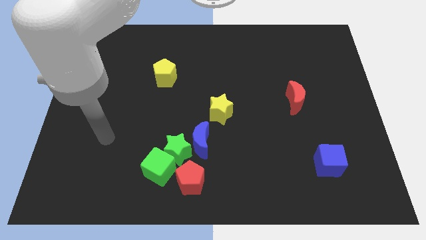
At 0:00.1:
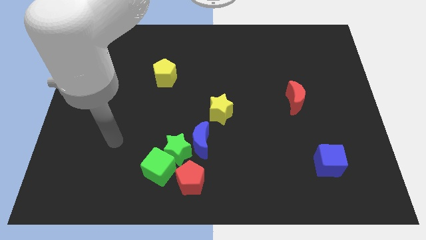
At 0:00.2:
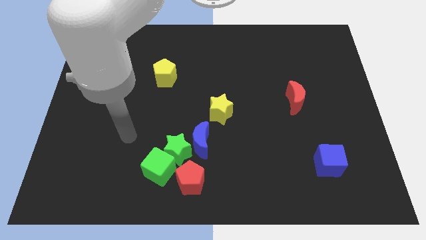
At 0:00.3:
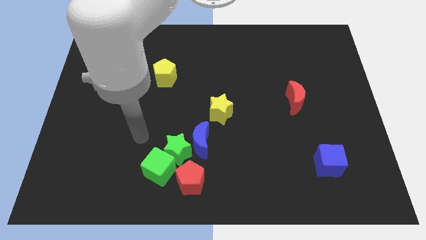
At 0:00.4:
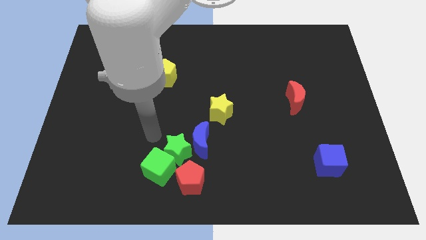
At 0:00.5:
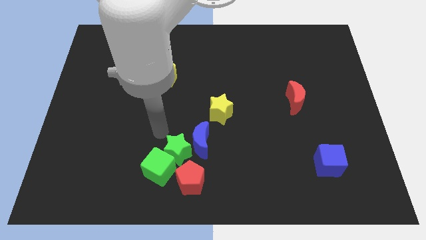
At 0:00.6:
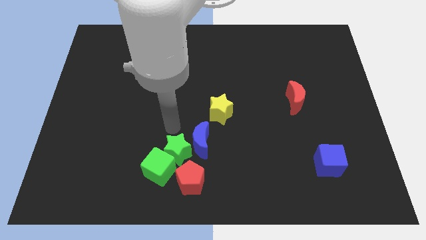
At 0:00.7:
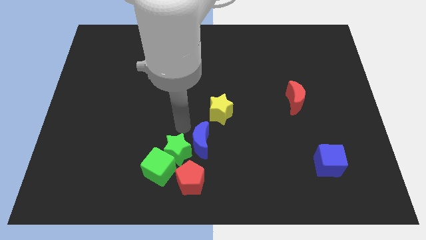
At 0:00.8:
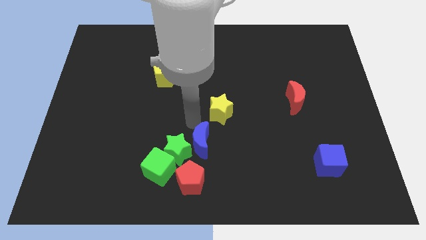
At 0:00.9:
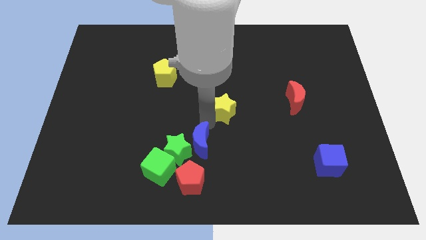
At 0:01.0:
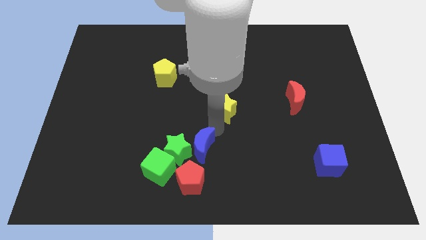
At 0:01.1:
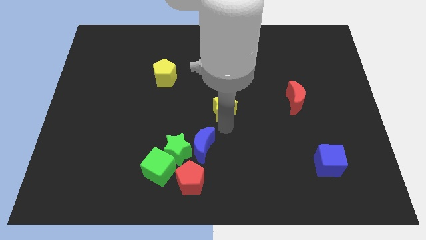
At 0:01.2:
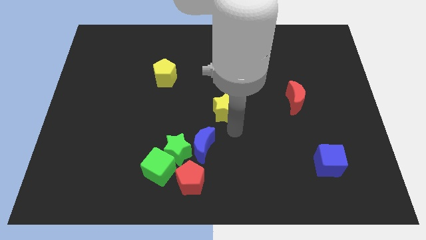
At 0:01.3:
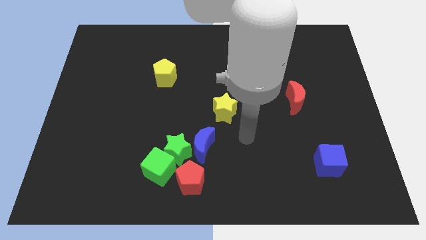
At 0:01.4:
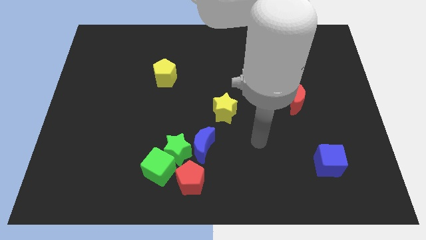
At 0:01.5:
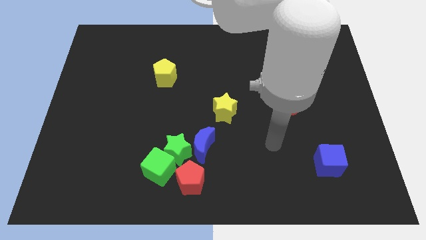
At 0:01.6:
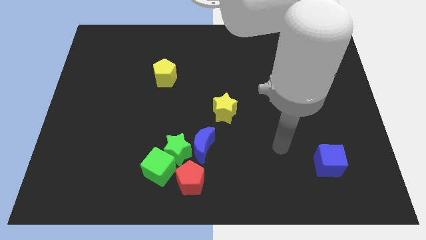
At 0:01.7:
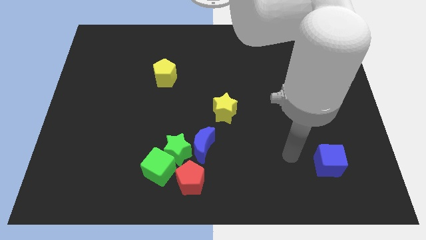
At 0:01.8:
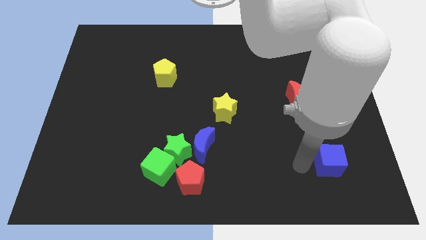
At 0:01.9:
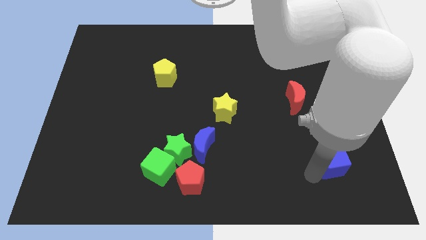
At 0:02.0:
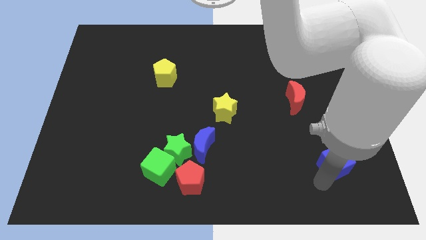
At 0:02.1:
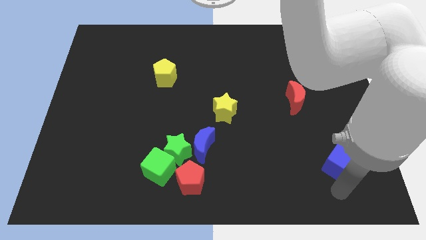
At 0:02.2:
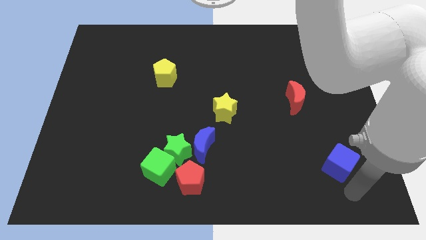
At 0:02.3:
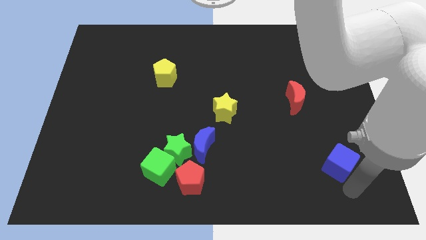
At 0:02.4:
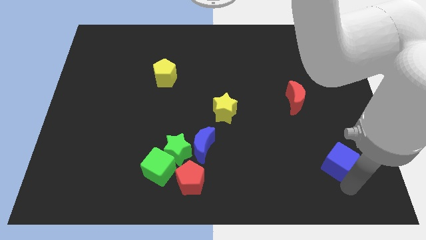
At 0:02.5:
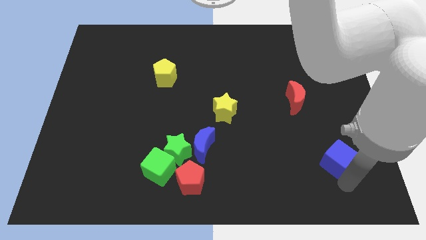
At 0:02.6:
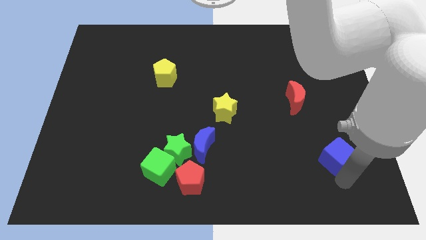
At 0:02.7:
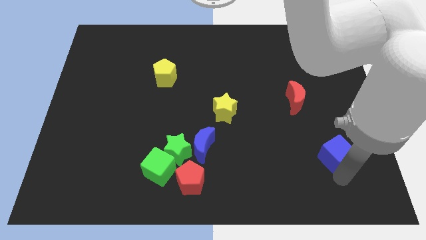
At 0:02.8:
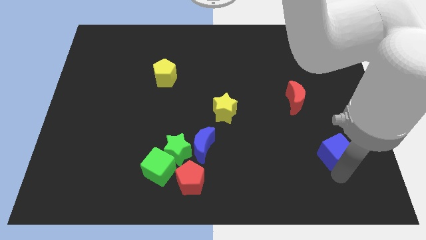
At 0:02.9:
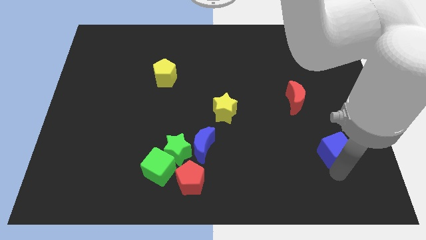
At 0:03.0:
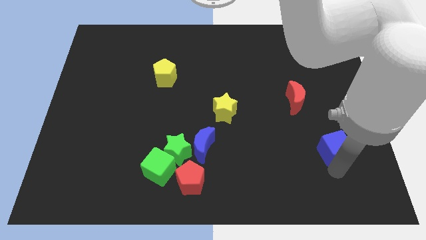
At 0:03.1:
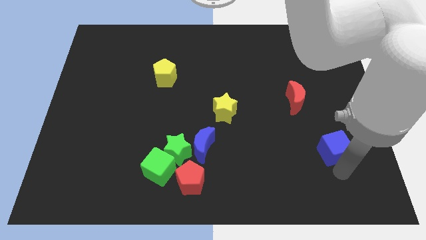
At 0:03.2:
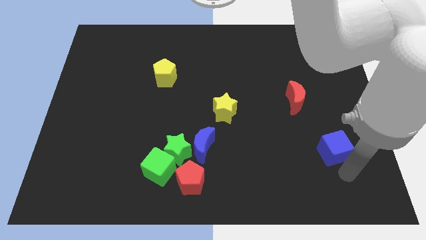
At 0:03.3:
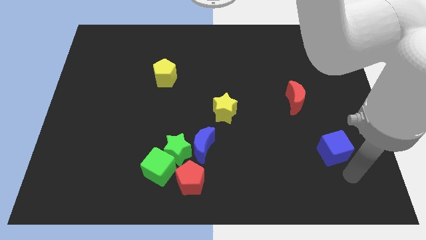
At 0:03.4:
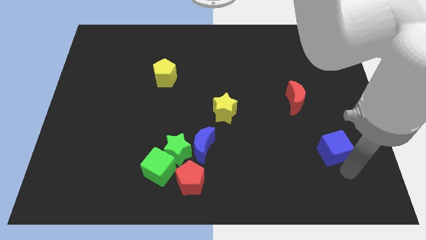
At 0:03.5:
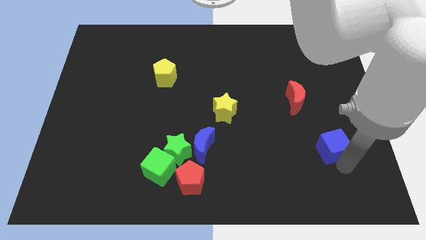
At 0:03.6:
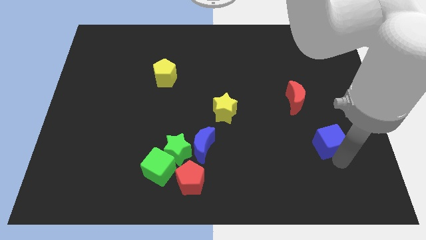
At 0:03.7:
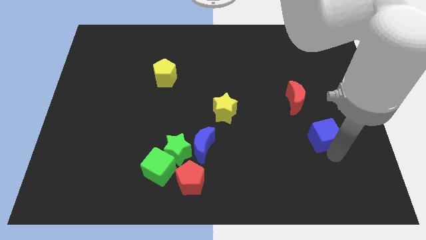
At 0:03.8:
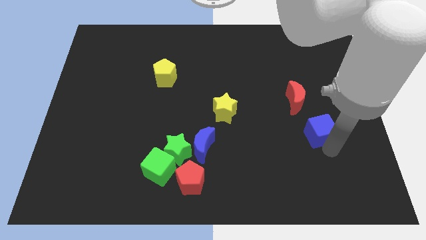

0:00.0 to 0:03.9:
push the blue cube up a little bit

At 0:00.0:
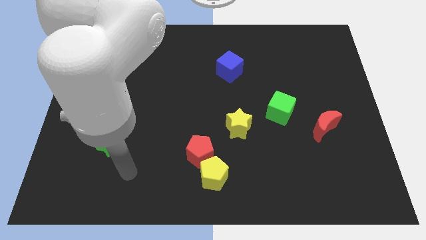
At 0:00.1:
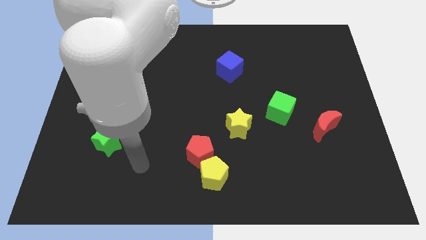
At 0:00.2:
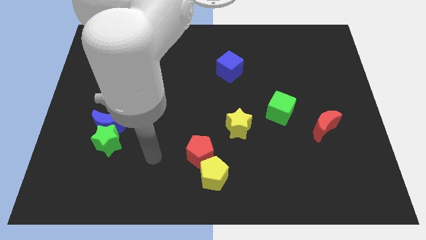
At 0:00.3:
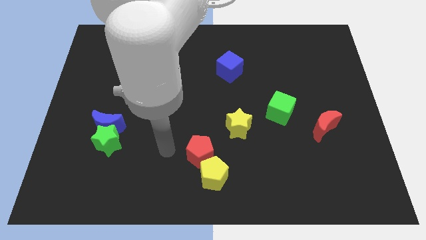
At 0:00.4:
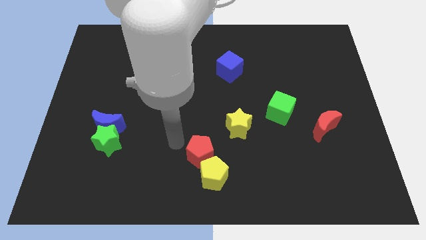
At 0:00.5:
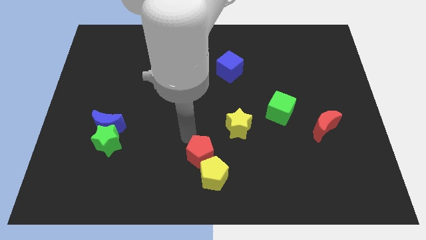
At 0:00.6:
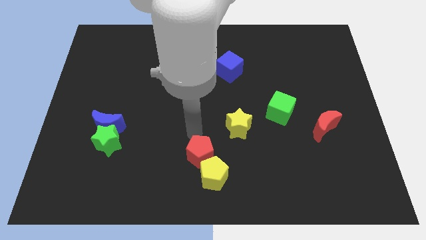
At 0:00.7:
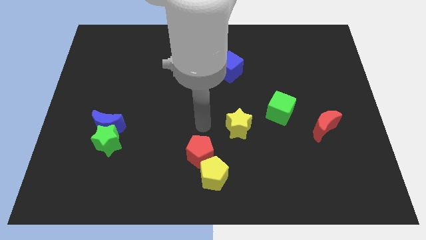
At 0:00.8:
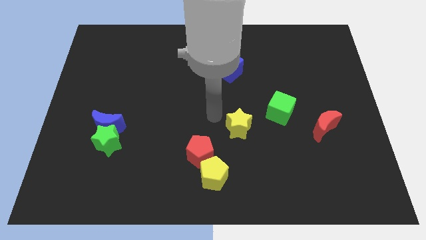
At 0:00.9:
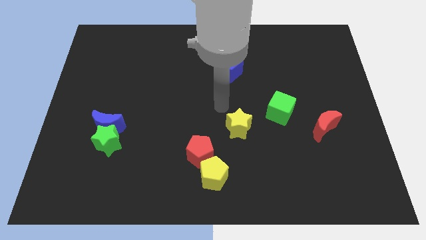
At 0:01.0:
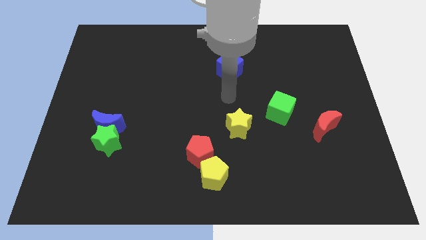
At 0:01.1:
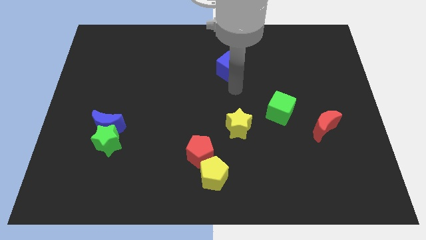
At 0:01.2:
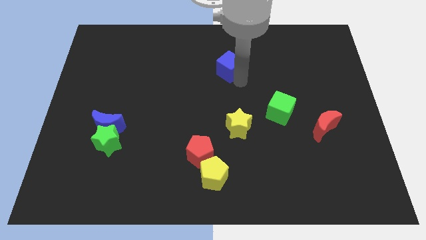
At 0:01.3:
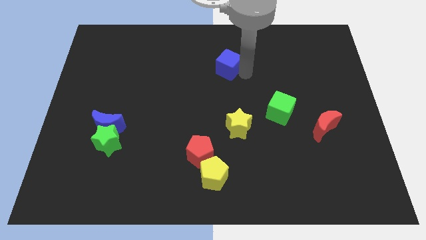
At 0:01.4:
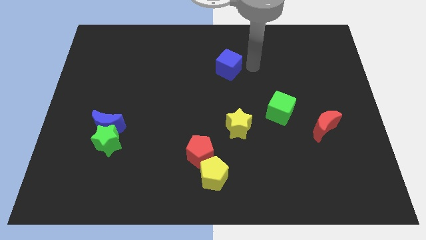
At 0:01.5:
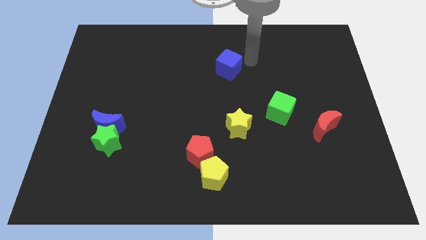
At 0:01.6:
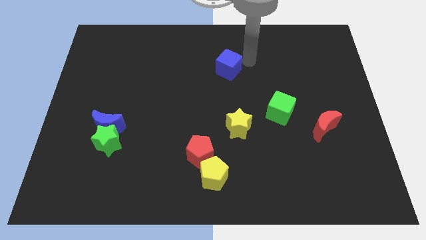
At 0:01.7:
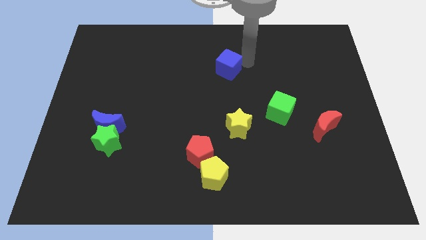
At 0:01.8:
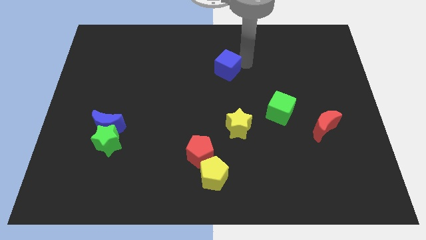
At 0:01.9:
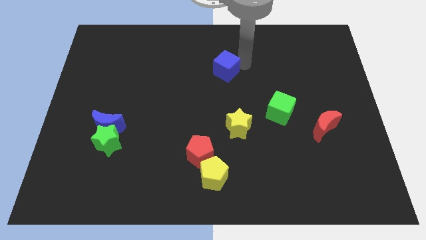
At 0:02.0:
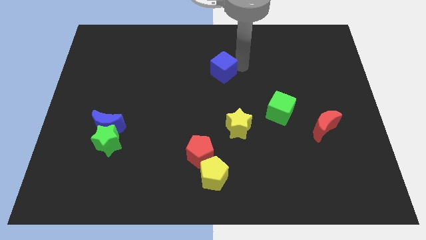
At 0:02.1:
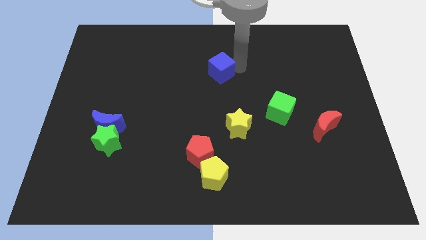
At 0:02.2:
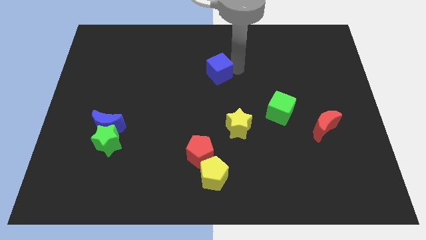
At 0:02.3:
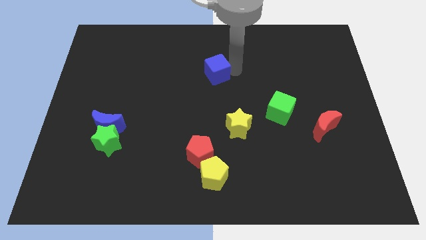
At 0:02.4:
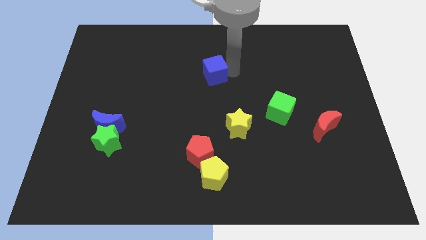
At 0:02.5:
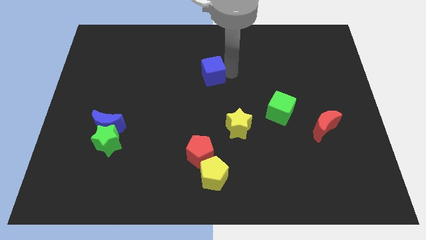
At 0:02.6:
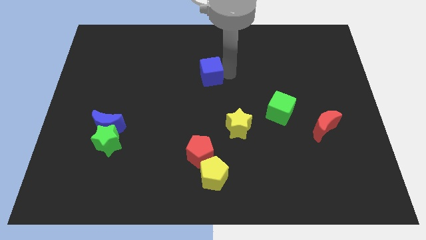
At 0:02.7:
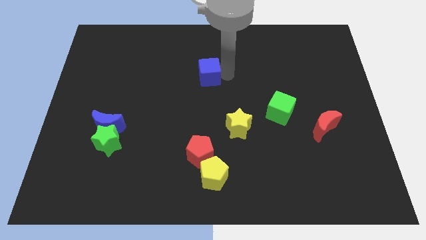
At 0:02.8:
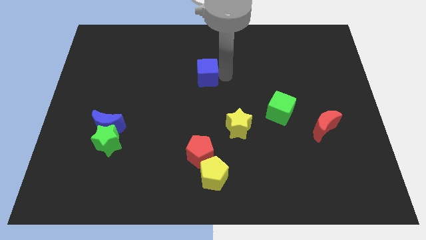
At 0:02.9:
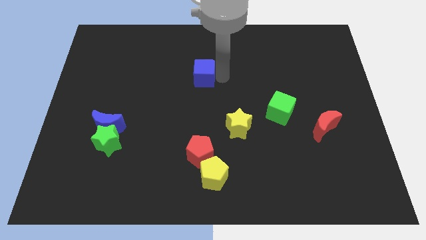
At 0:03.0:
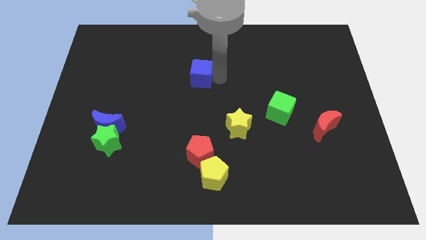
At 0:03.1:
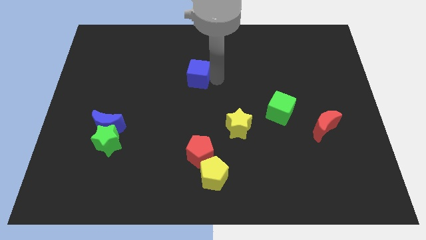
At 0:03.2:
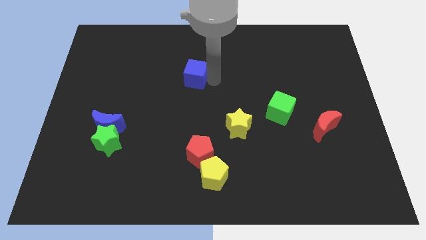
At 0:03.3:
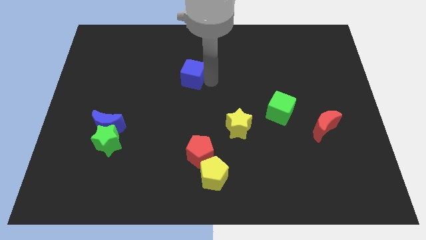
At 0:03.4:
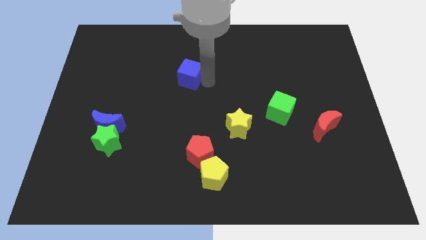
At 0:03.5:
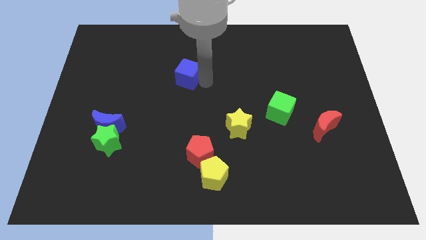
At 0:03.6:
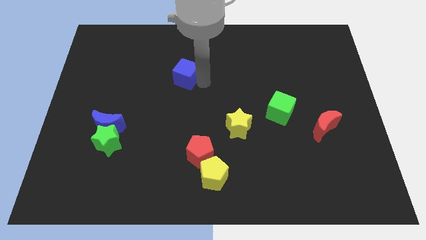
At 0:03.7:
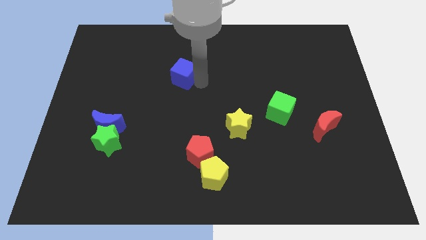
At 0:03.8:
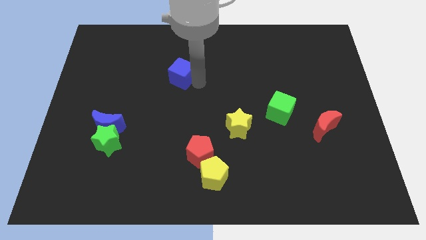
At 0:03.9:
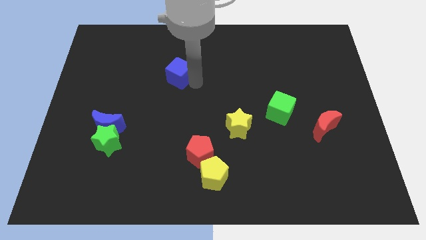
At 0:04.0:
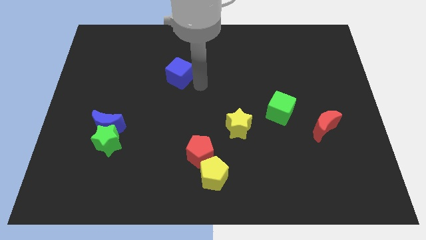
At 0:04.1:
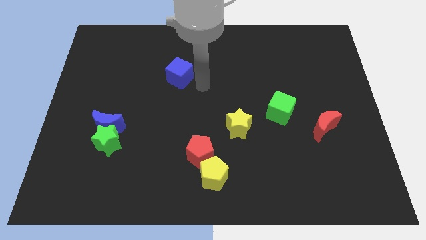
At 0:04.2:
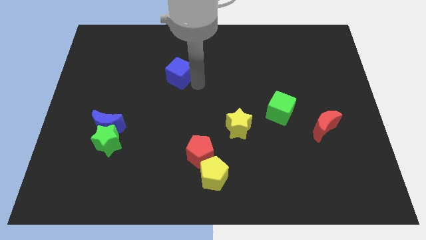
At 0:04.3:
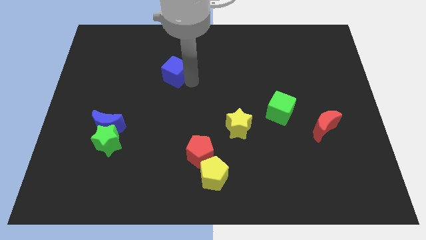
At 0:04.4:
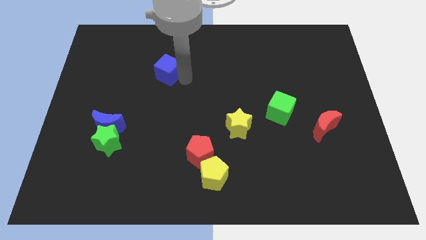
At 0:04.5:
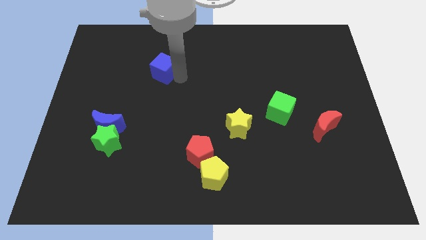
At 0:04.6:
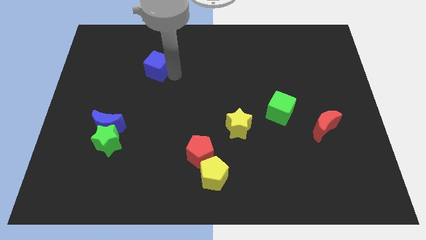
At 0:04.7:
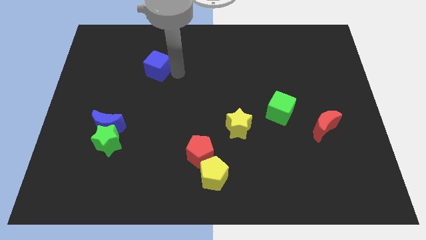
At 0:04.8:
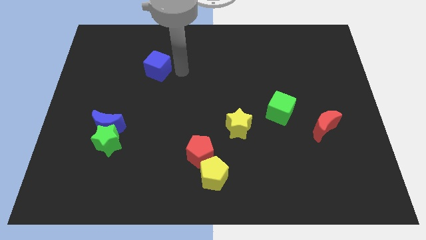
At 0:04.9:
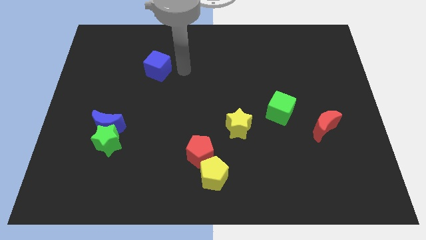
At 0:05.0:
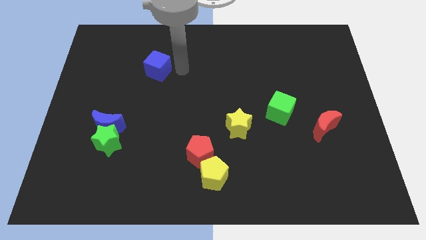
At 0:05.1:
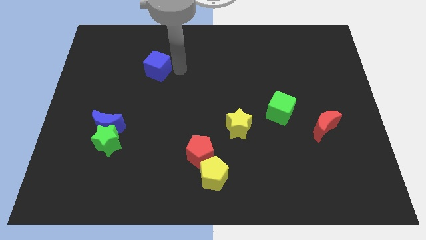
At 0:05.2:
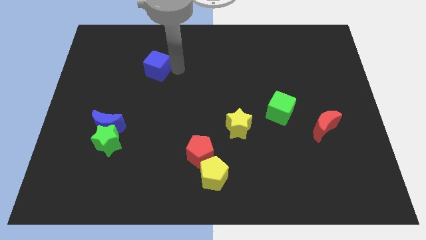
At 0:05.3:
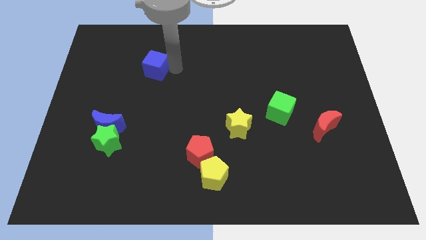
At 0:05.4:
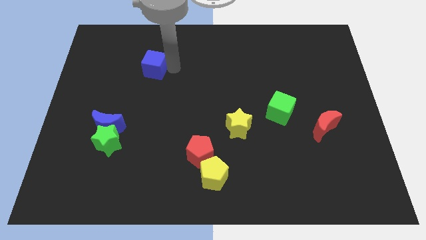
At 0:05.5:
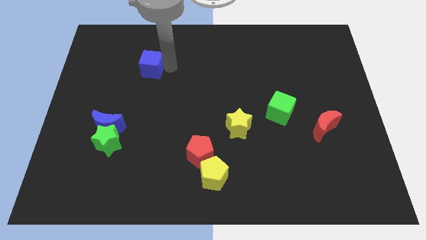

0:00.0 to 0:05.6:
slide the blue cube to the left
